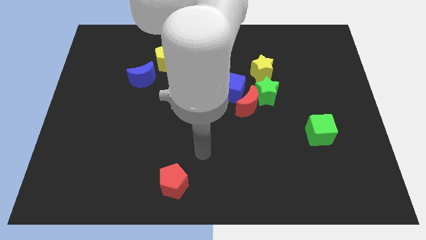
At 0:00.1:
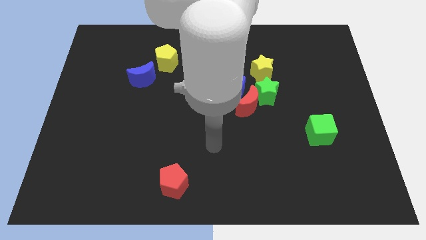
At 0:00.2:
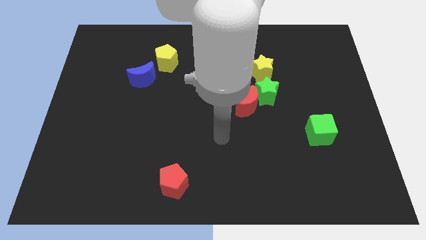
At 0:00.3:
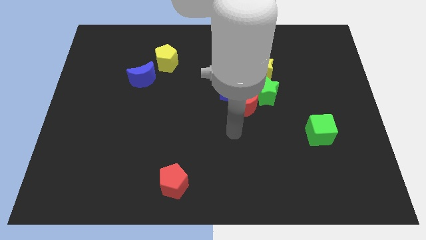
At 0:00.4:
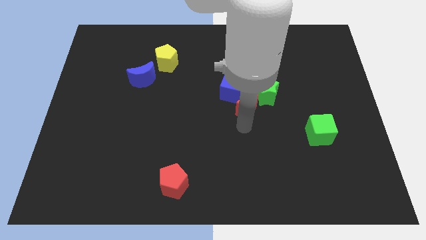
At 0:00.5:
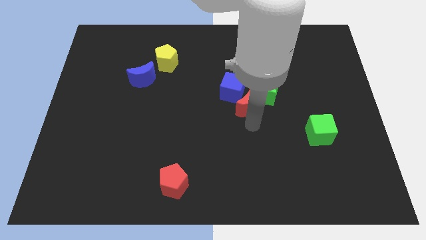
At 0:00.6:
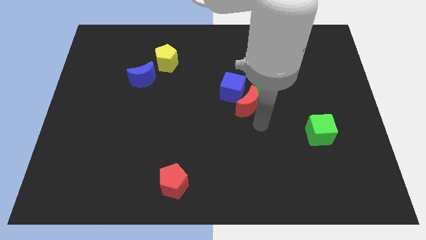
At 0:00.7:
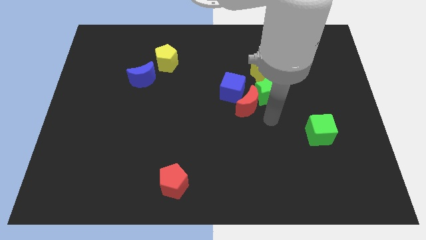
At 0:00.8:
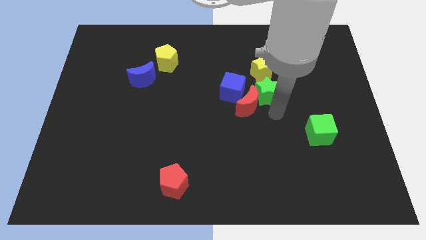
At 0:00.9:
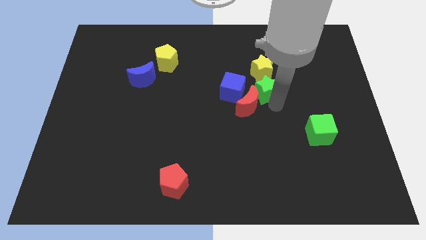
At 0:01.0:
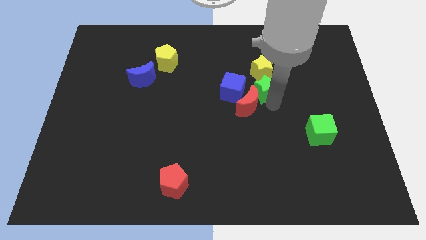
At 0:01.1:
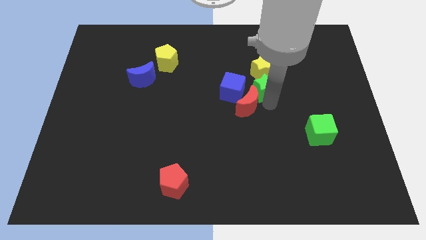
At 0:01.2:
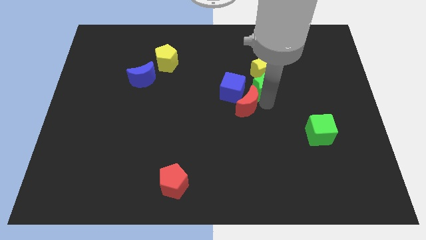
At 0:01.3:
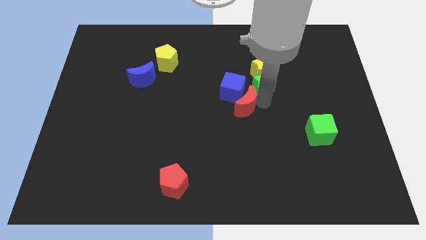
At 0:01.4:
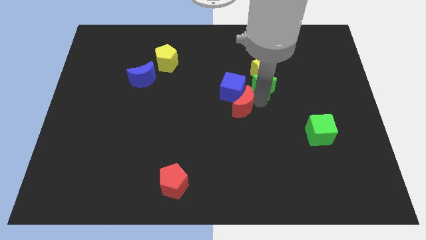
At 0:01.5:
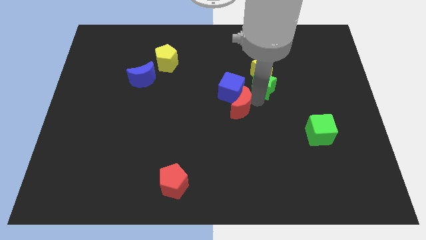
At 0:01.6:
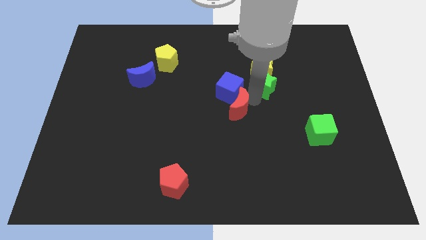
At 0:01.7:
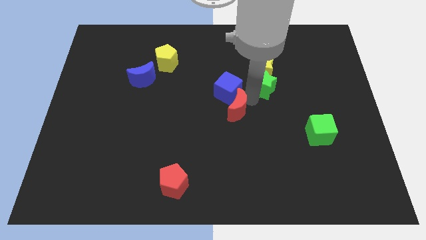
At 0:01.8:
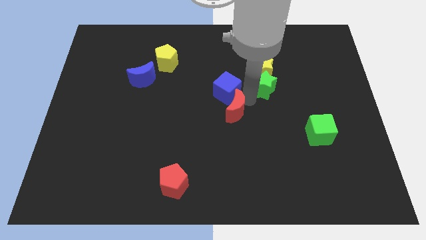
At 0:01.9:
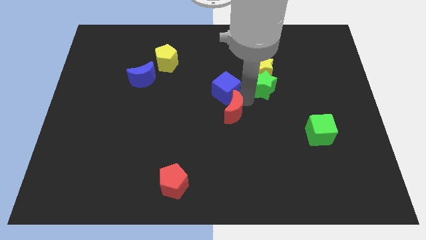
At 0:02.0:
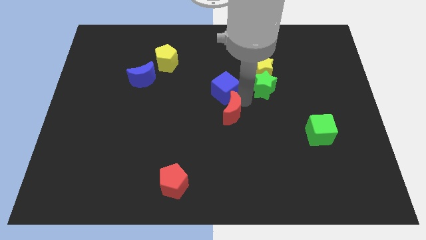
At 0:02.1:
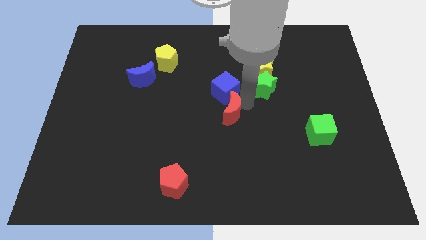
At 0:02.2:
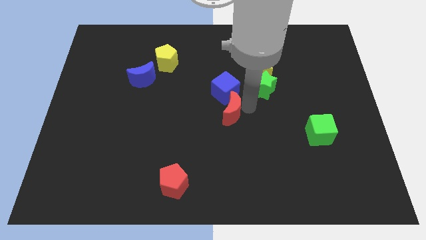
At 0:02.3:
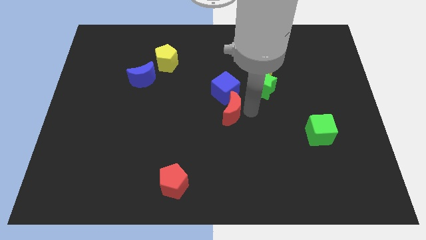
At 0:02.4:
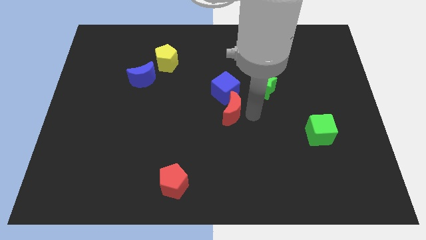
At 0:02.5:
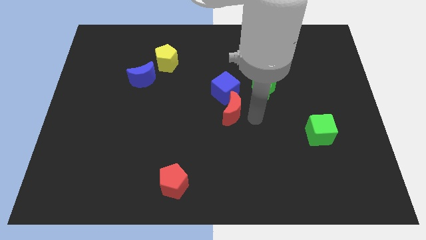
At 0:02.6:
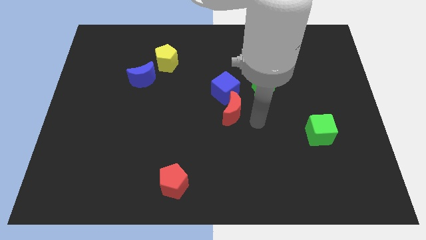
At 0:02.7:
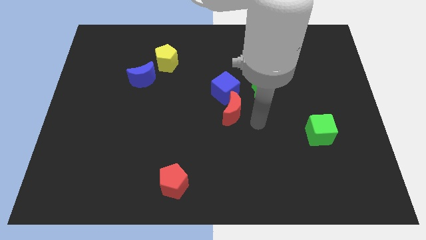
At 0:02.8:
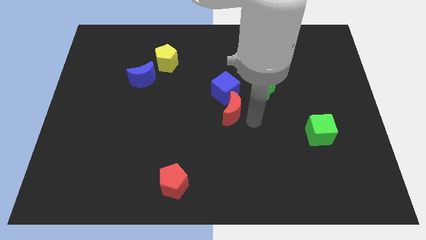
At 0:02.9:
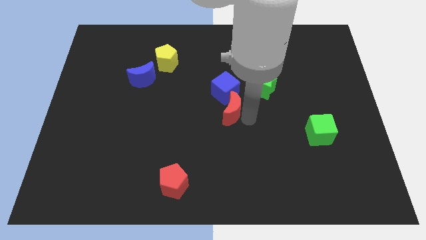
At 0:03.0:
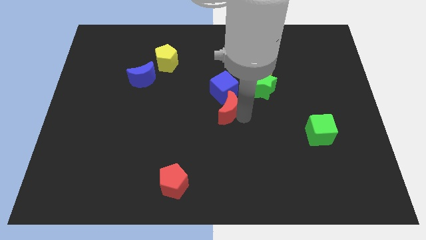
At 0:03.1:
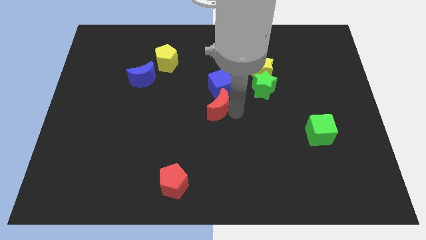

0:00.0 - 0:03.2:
move the red moon a little left

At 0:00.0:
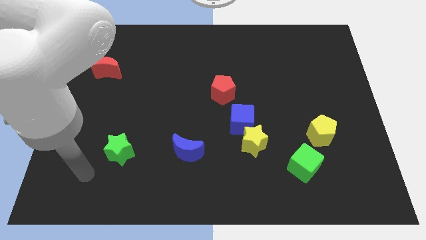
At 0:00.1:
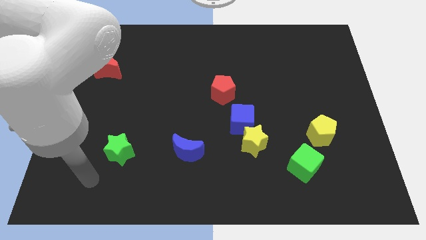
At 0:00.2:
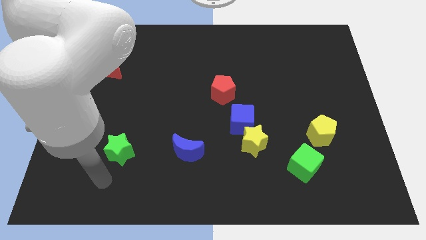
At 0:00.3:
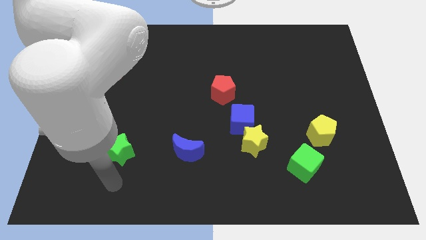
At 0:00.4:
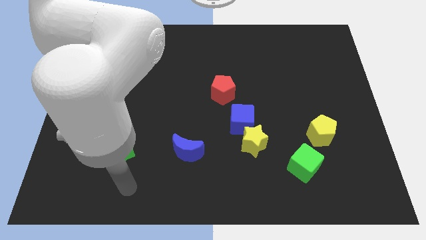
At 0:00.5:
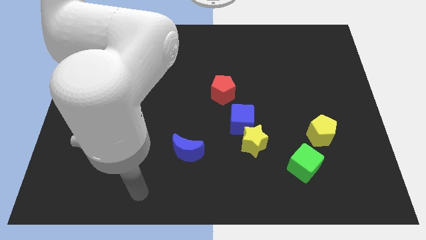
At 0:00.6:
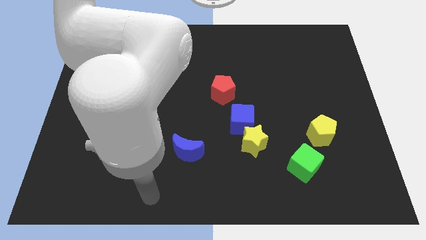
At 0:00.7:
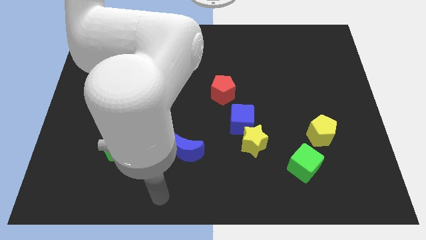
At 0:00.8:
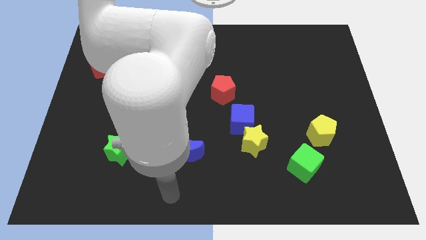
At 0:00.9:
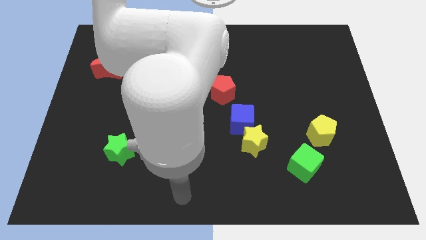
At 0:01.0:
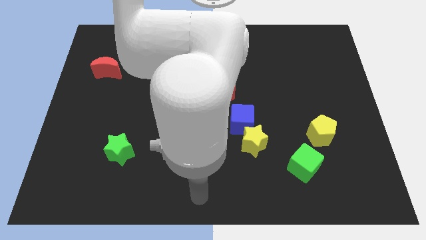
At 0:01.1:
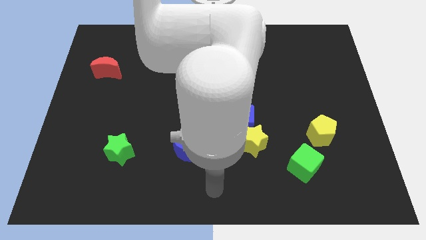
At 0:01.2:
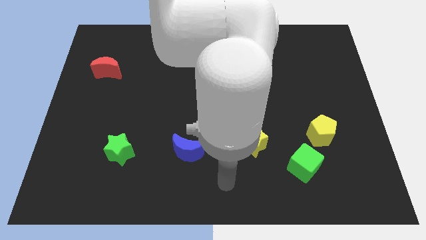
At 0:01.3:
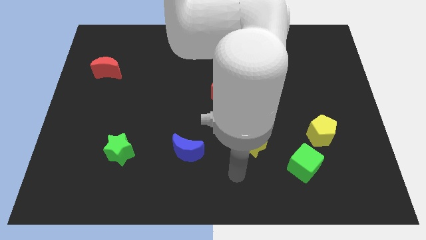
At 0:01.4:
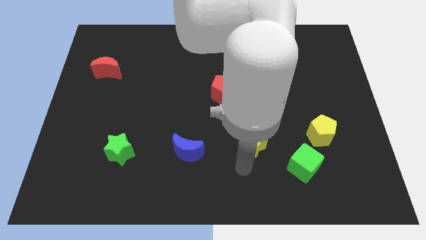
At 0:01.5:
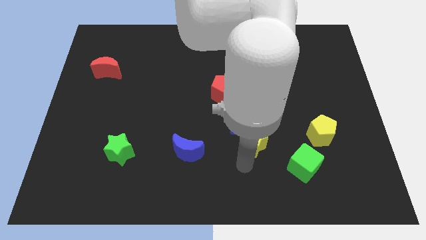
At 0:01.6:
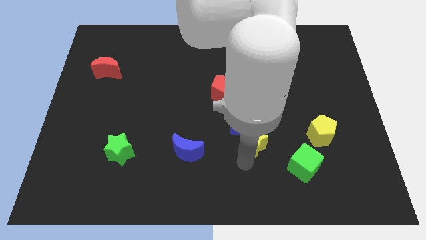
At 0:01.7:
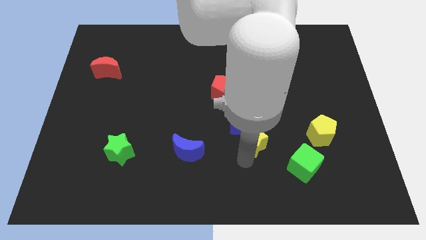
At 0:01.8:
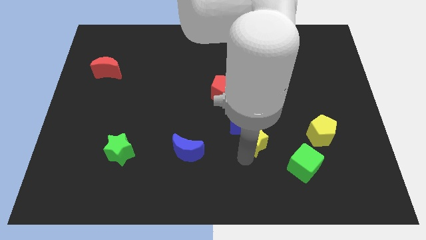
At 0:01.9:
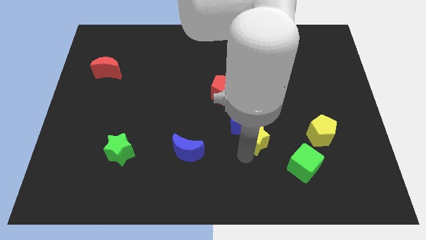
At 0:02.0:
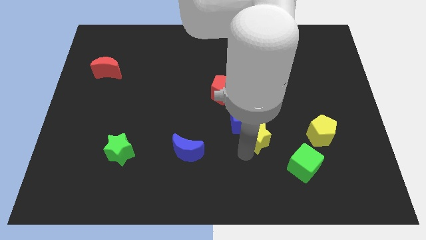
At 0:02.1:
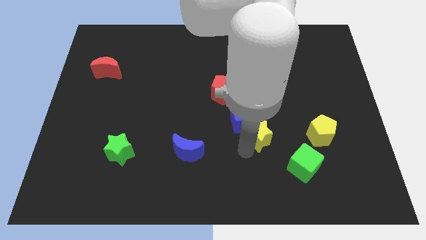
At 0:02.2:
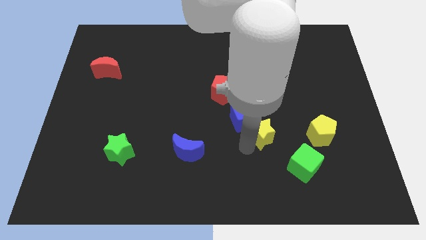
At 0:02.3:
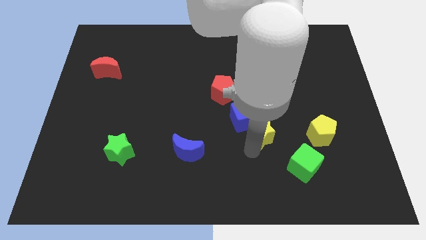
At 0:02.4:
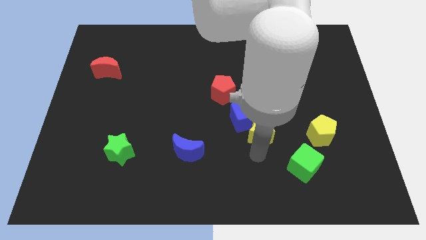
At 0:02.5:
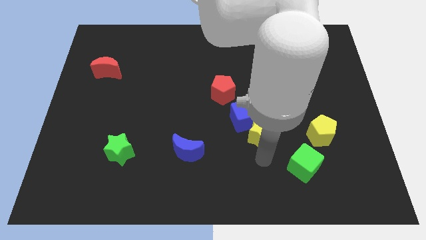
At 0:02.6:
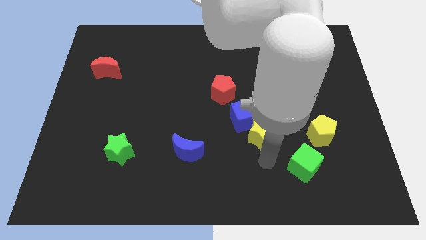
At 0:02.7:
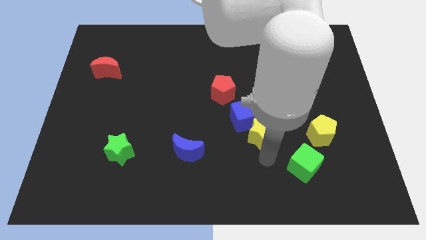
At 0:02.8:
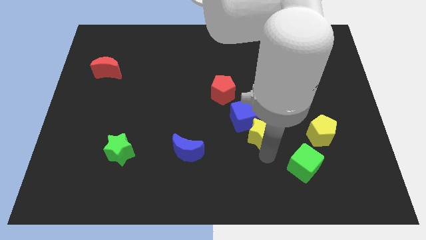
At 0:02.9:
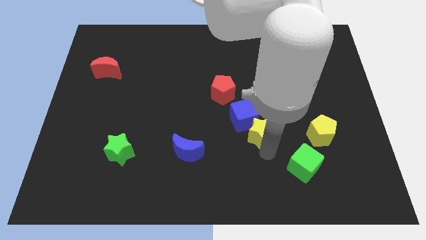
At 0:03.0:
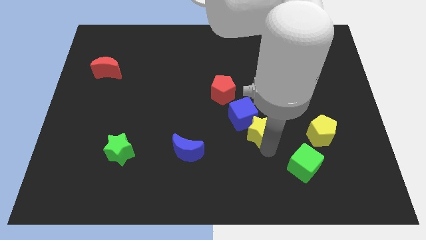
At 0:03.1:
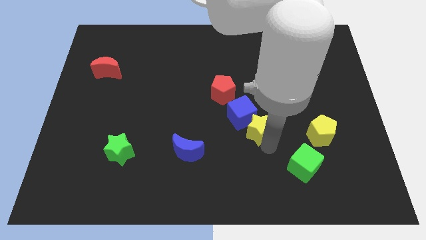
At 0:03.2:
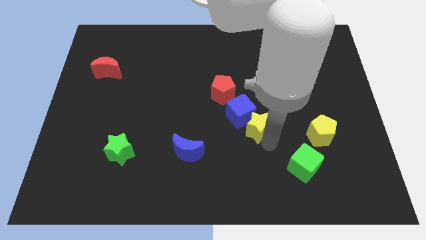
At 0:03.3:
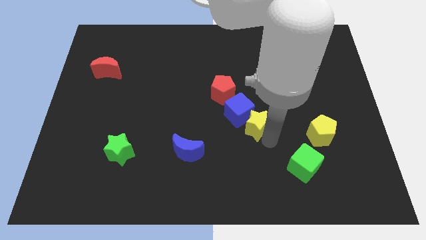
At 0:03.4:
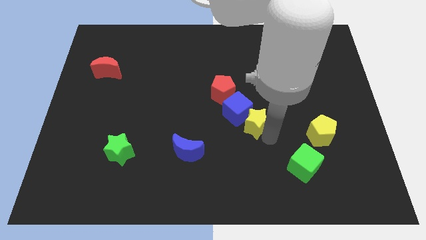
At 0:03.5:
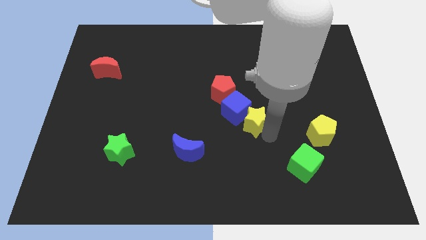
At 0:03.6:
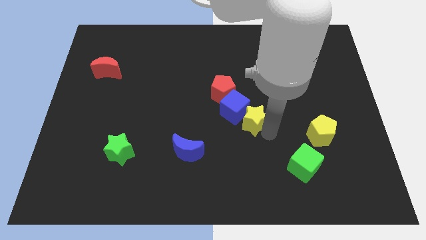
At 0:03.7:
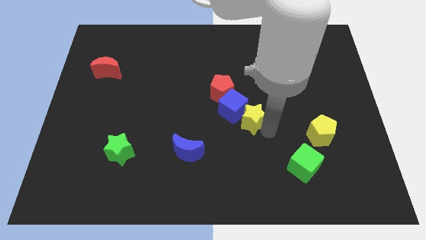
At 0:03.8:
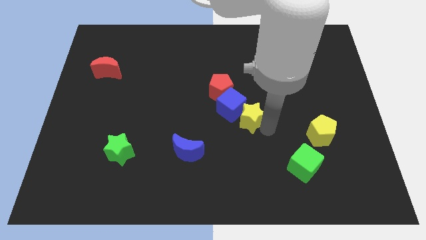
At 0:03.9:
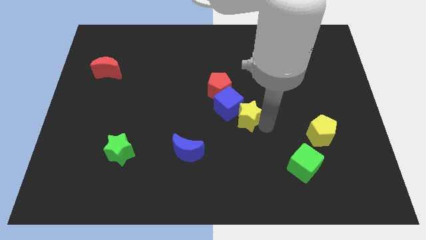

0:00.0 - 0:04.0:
move the yellow star slightly upwards

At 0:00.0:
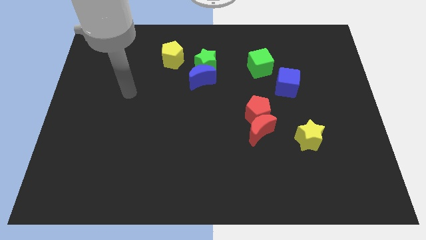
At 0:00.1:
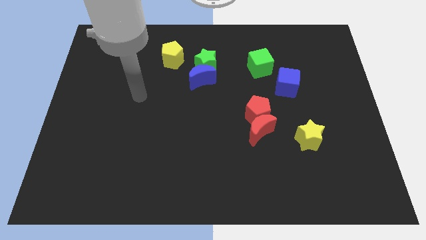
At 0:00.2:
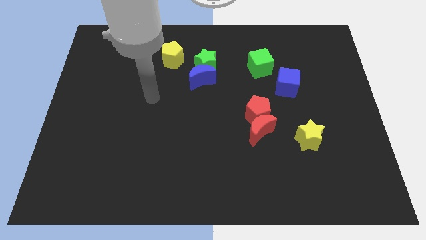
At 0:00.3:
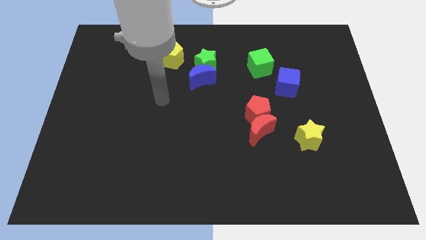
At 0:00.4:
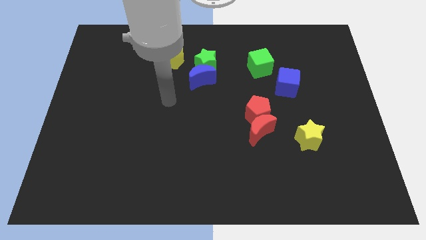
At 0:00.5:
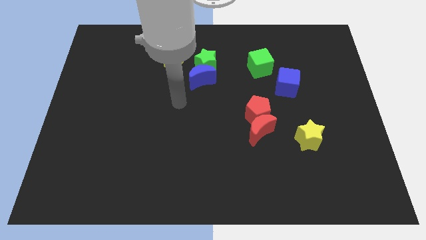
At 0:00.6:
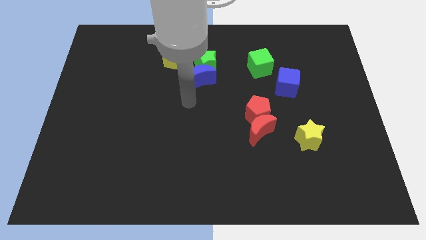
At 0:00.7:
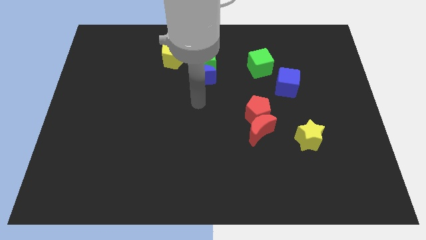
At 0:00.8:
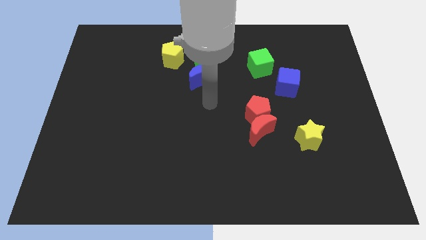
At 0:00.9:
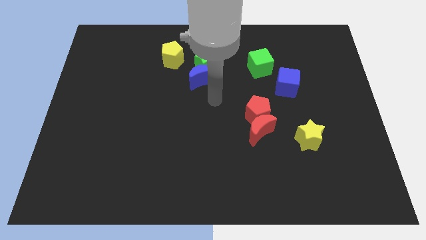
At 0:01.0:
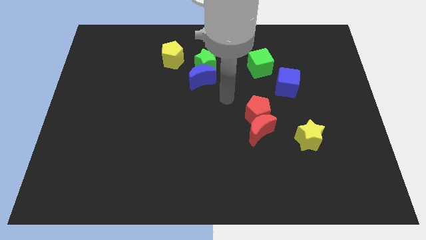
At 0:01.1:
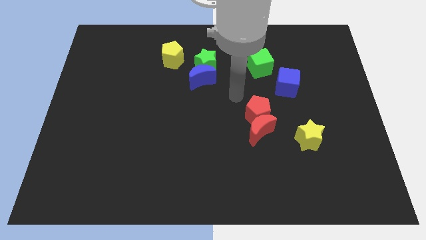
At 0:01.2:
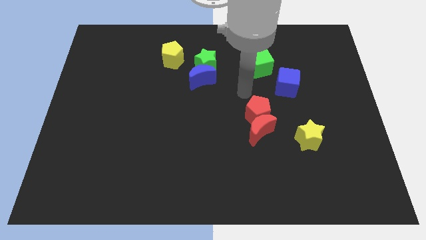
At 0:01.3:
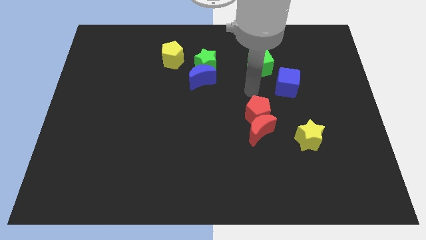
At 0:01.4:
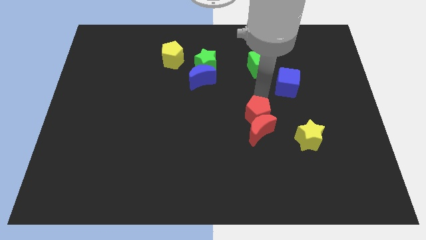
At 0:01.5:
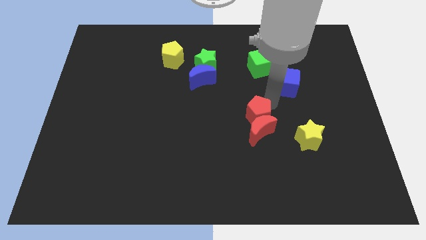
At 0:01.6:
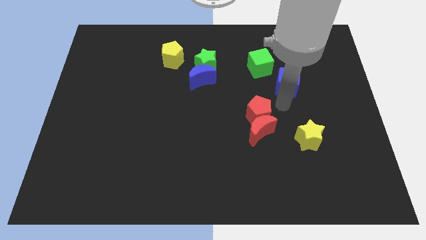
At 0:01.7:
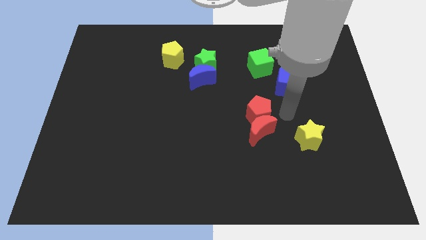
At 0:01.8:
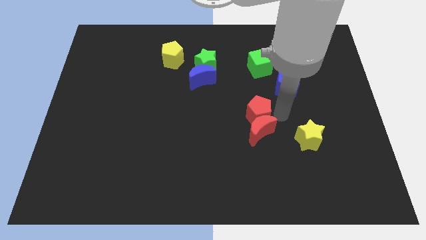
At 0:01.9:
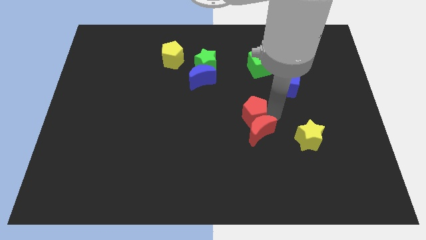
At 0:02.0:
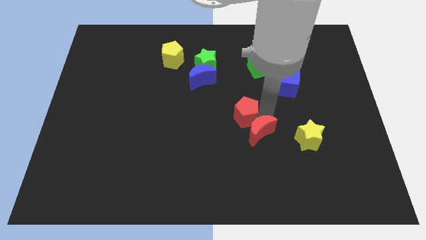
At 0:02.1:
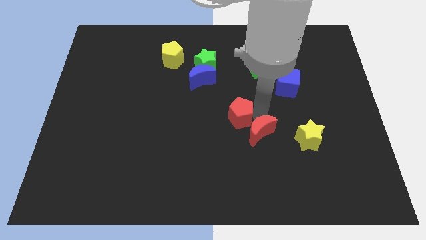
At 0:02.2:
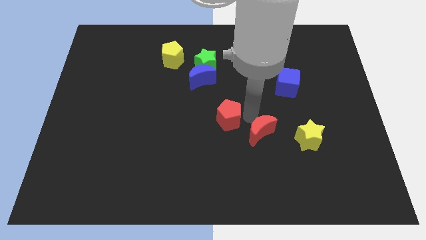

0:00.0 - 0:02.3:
move the red pentagon a bit to the left
